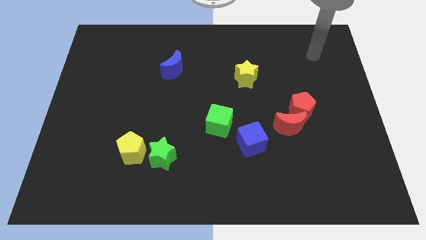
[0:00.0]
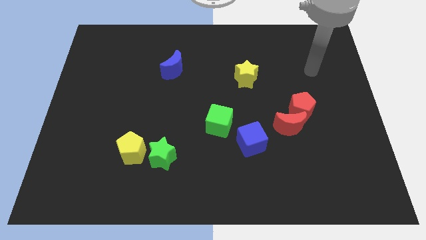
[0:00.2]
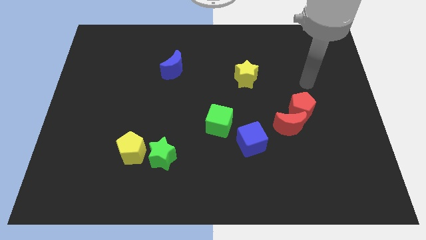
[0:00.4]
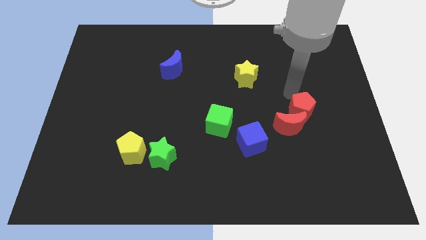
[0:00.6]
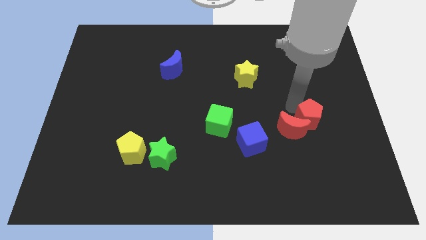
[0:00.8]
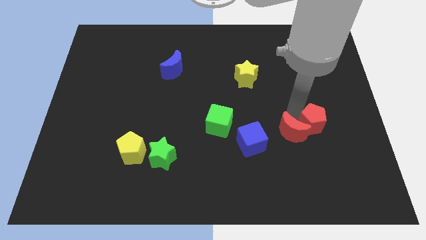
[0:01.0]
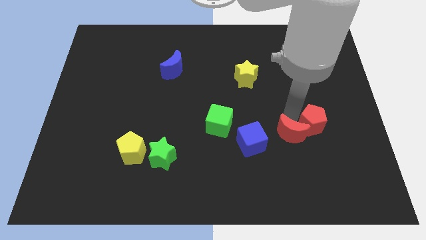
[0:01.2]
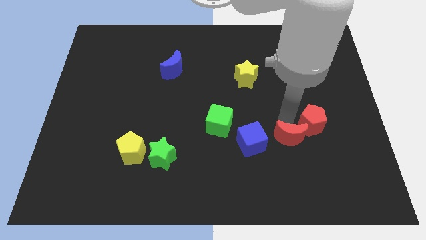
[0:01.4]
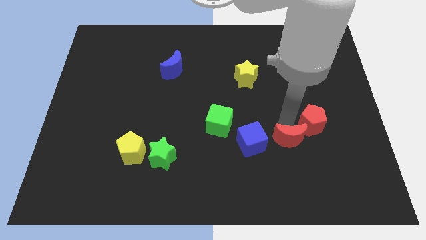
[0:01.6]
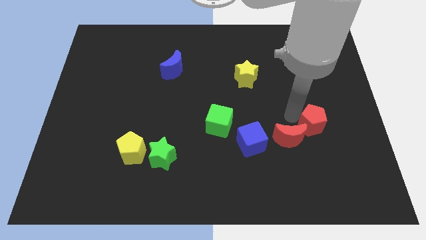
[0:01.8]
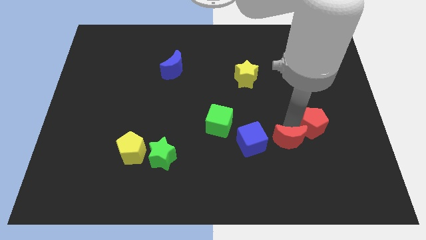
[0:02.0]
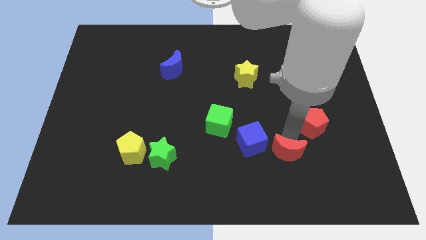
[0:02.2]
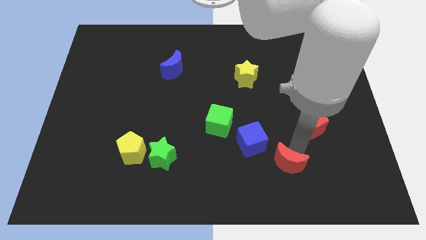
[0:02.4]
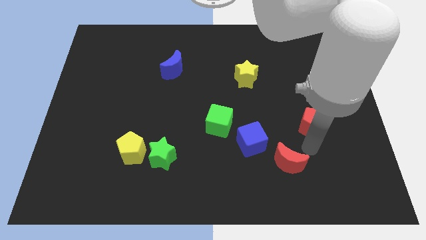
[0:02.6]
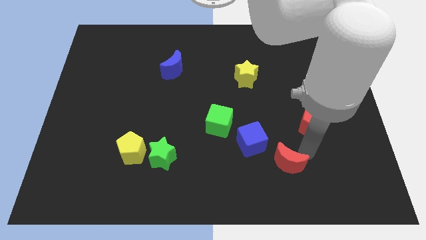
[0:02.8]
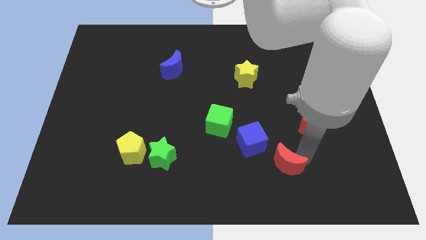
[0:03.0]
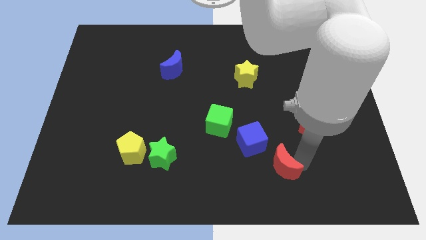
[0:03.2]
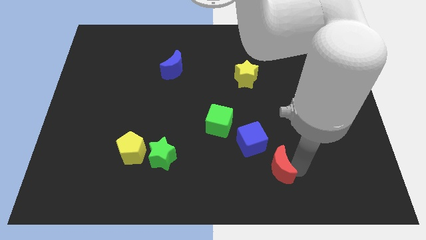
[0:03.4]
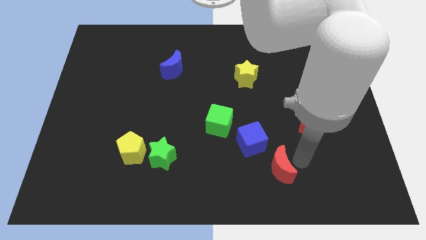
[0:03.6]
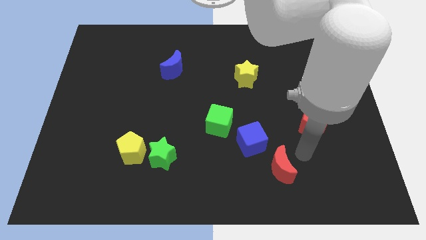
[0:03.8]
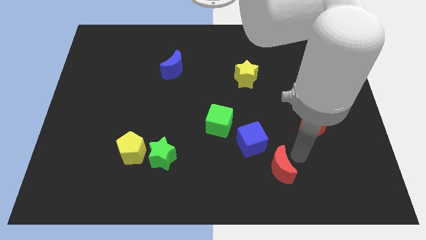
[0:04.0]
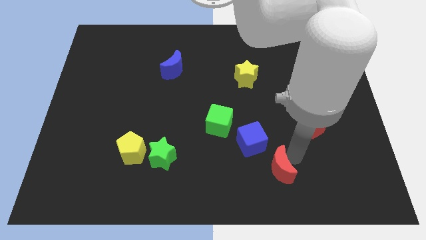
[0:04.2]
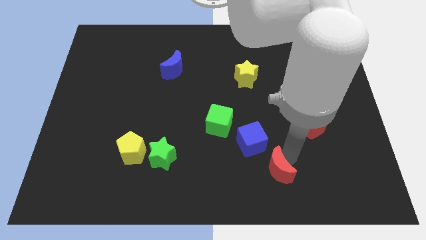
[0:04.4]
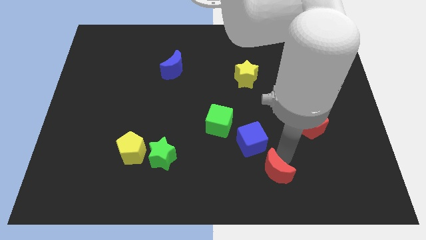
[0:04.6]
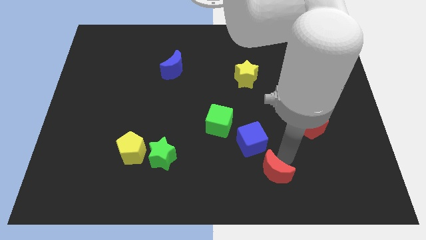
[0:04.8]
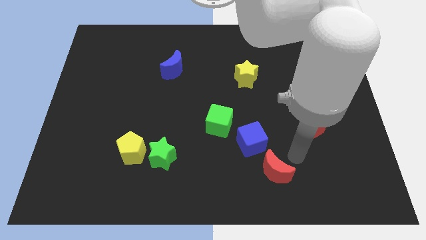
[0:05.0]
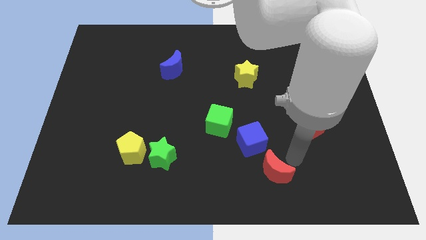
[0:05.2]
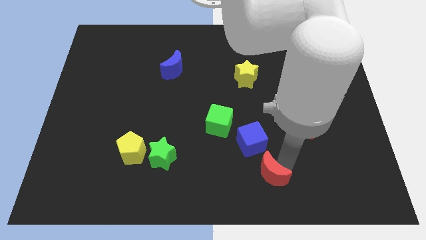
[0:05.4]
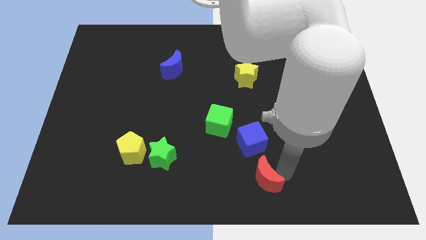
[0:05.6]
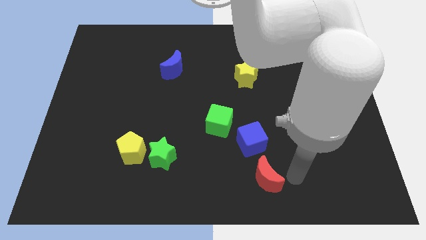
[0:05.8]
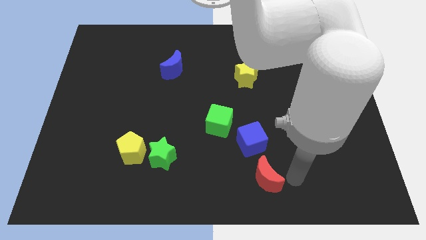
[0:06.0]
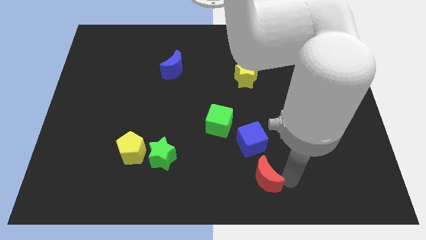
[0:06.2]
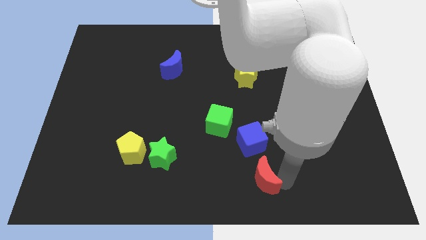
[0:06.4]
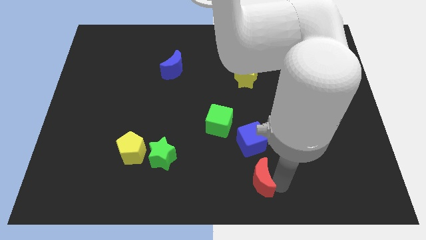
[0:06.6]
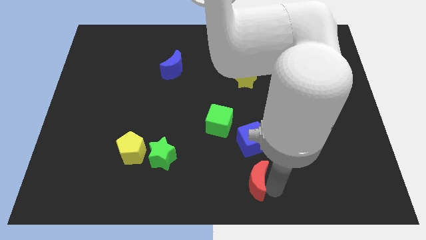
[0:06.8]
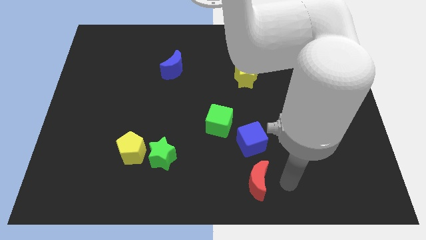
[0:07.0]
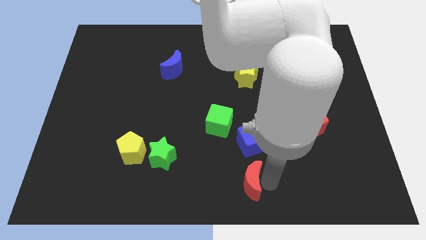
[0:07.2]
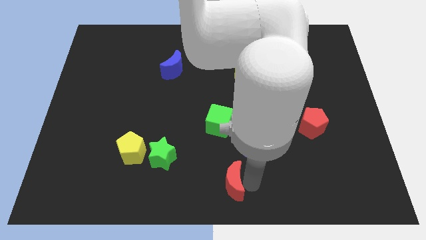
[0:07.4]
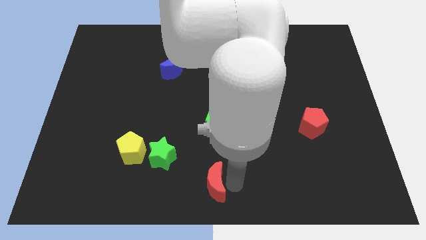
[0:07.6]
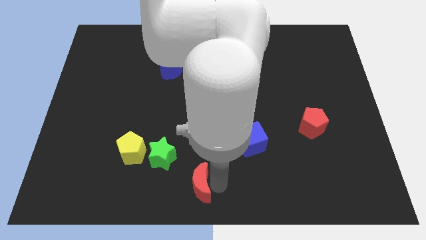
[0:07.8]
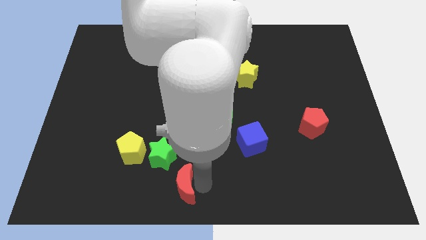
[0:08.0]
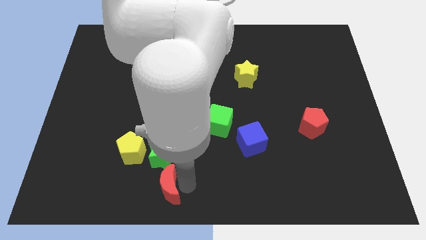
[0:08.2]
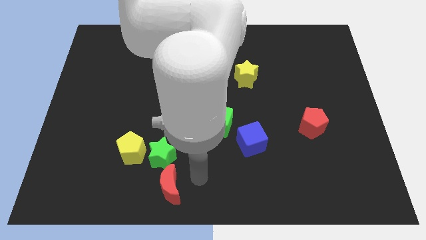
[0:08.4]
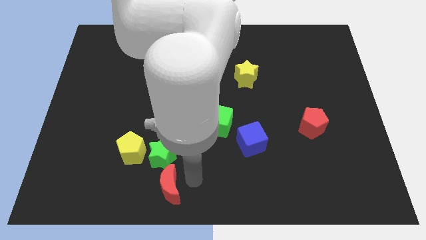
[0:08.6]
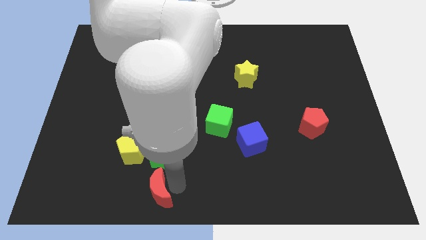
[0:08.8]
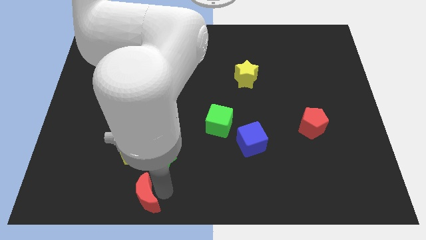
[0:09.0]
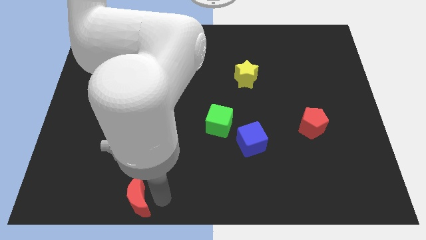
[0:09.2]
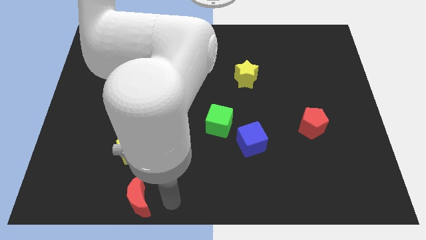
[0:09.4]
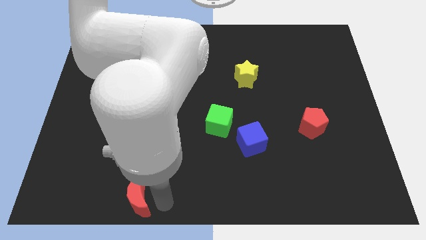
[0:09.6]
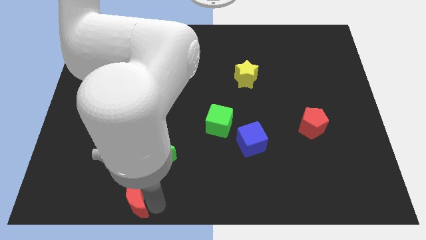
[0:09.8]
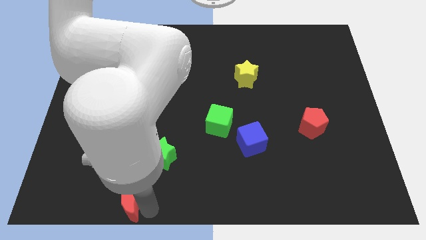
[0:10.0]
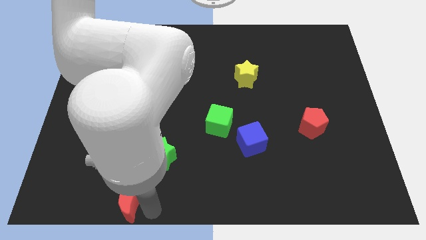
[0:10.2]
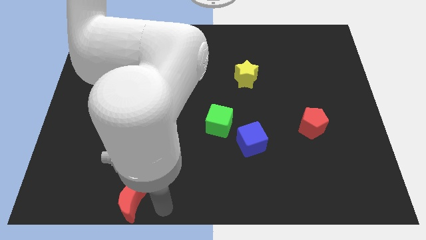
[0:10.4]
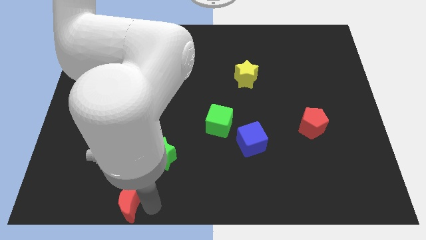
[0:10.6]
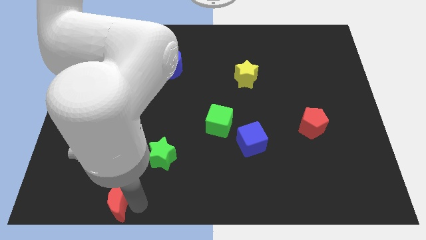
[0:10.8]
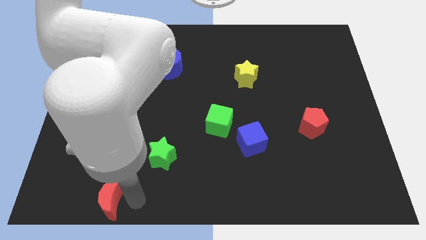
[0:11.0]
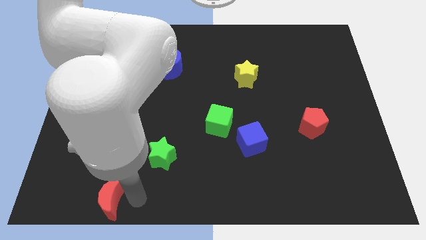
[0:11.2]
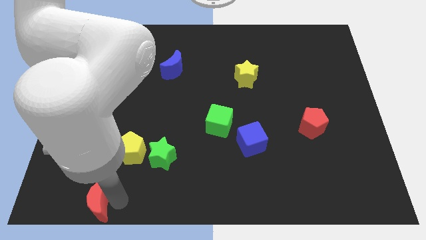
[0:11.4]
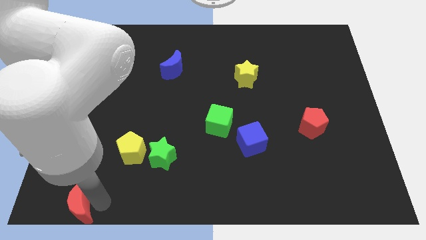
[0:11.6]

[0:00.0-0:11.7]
move the red moon to the bottom left corner
